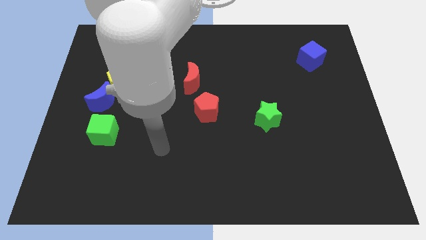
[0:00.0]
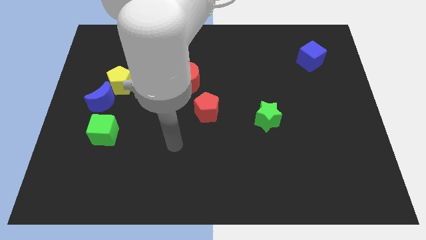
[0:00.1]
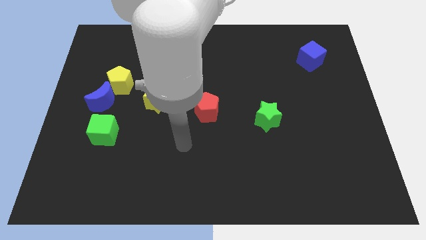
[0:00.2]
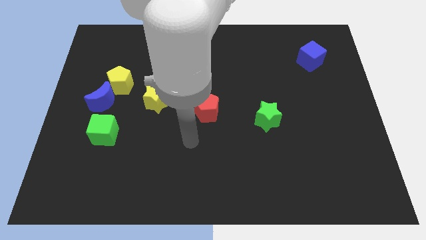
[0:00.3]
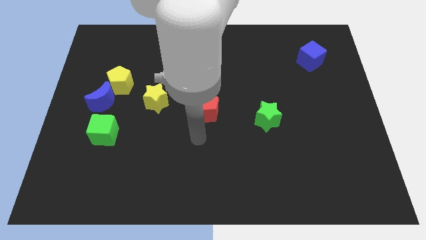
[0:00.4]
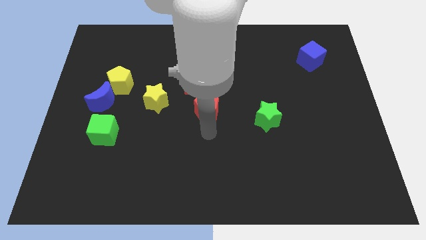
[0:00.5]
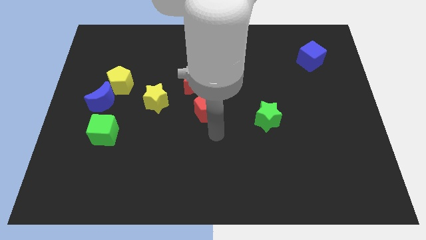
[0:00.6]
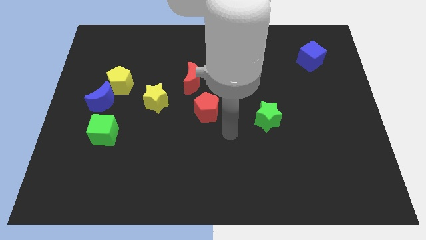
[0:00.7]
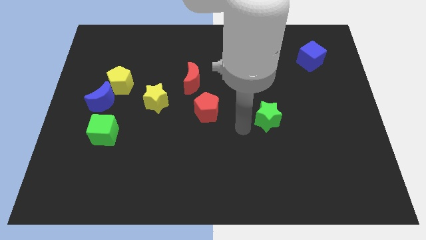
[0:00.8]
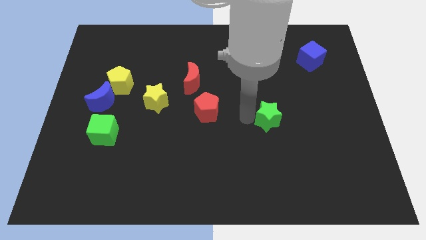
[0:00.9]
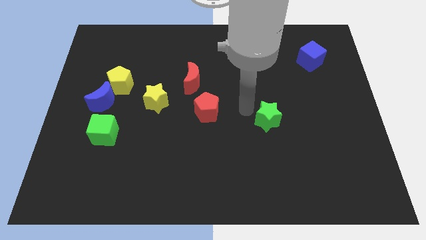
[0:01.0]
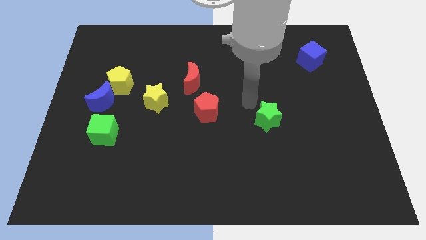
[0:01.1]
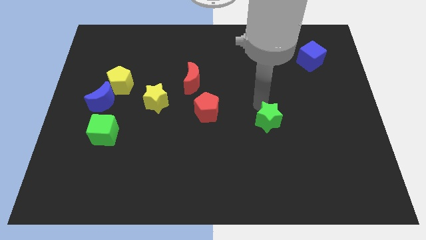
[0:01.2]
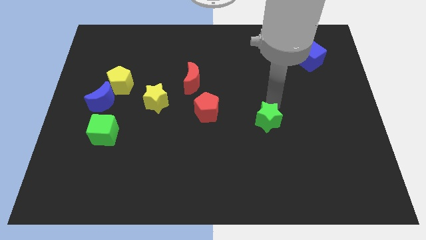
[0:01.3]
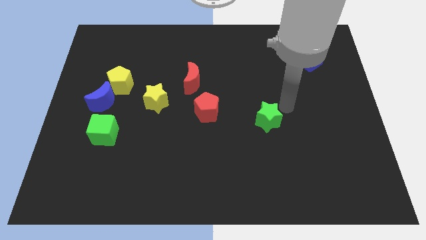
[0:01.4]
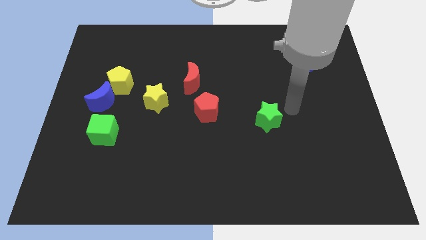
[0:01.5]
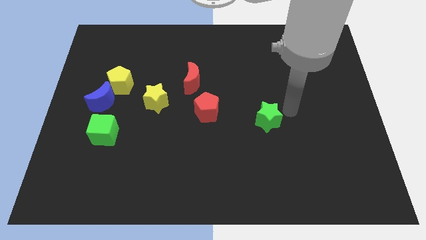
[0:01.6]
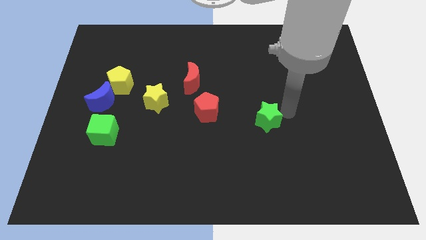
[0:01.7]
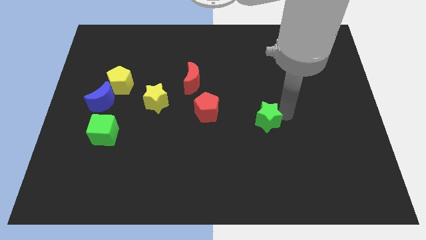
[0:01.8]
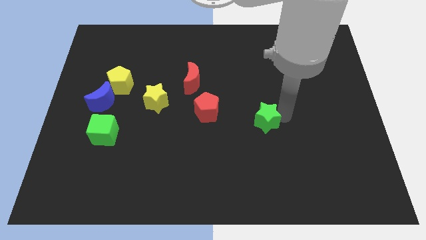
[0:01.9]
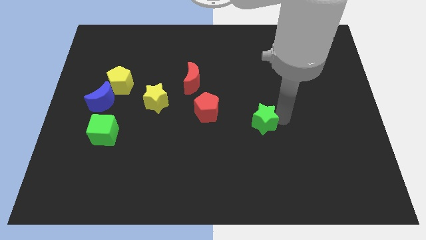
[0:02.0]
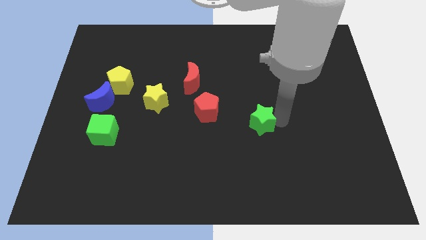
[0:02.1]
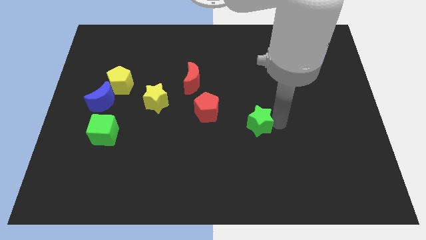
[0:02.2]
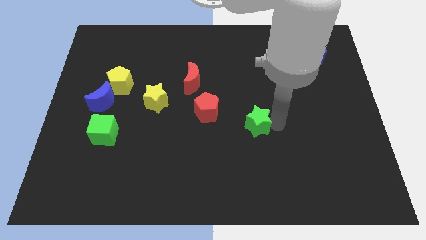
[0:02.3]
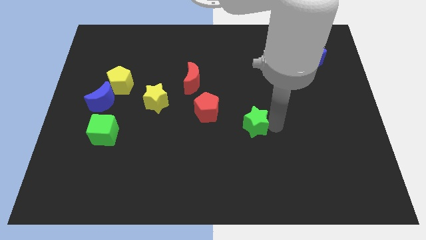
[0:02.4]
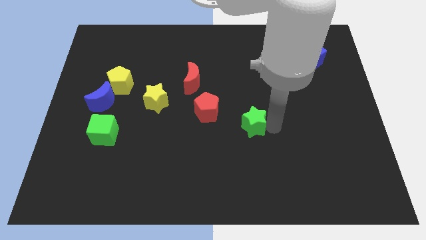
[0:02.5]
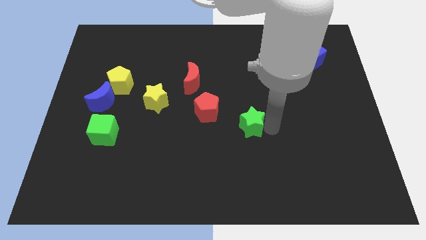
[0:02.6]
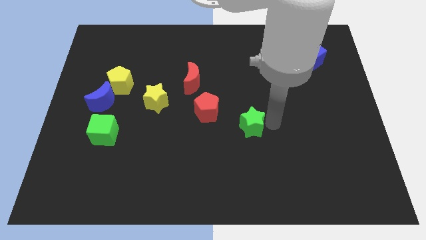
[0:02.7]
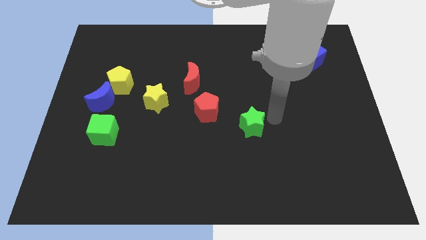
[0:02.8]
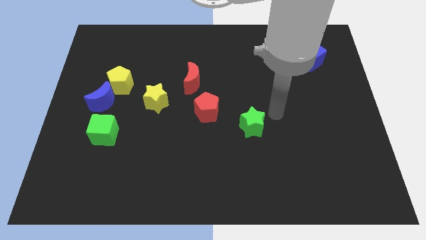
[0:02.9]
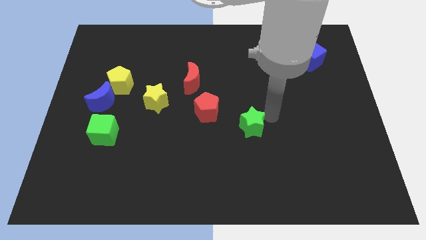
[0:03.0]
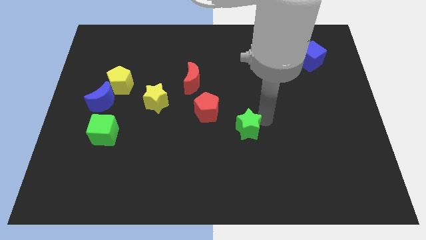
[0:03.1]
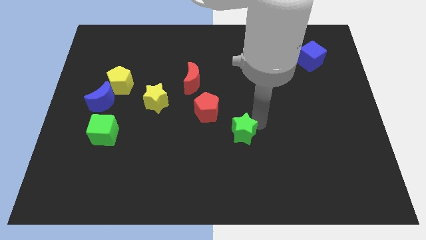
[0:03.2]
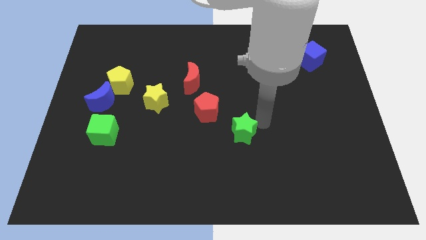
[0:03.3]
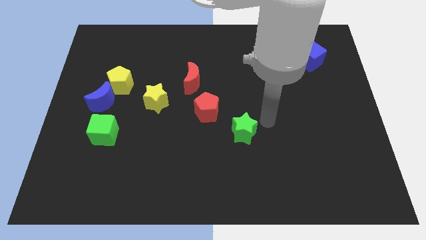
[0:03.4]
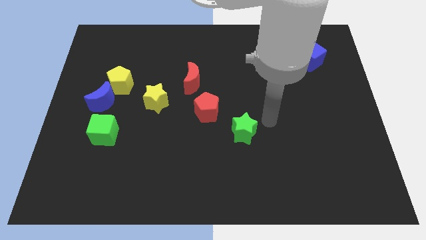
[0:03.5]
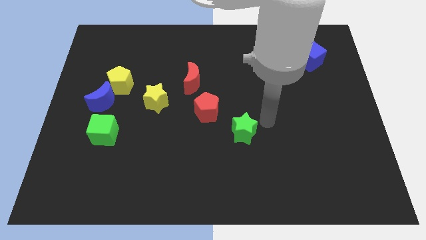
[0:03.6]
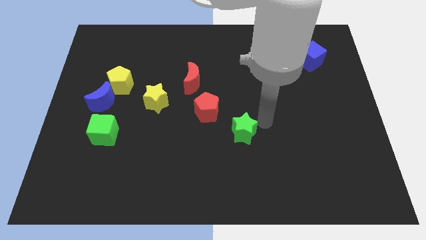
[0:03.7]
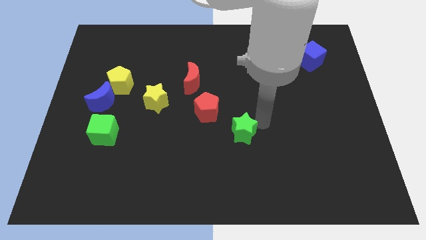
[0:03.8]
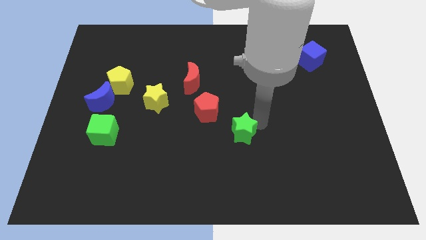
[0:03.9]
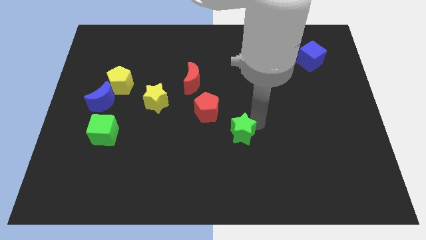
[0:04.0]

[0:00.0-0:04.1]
move the green star downwards and left slightly

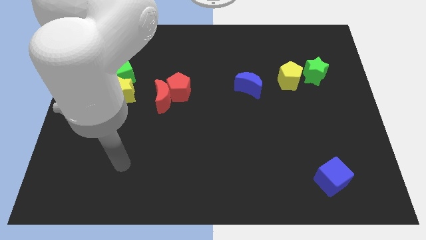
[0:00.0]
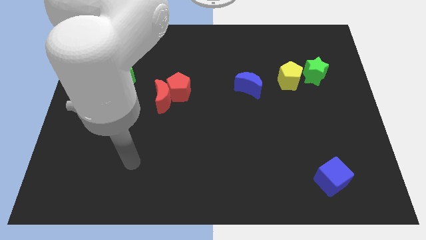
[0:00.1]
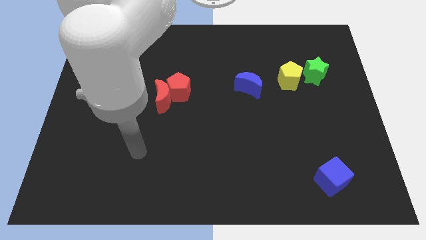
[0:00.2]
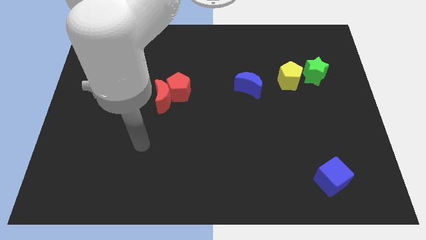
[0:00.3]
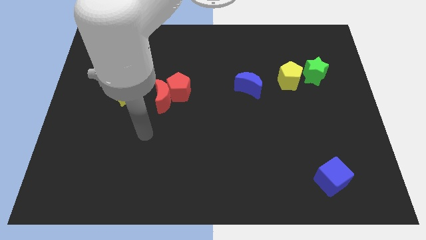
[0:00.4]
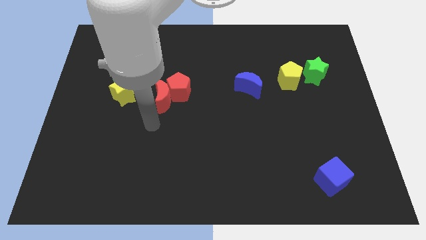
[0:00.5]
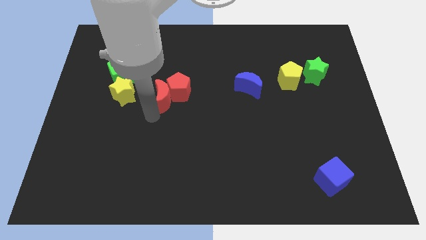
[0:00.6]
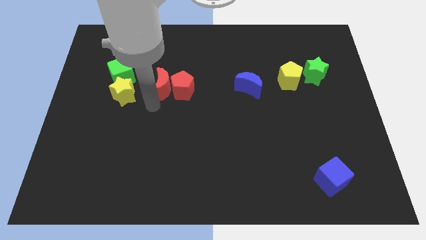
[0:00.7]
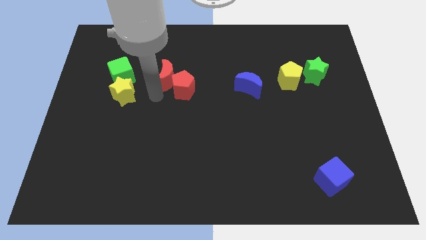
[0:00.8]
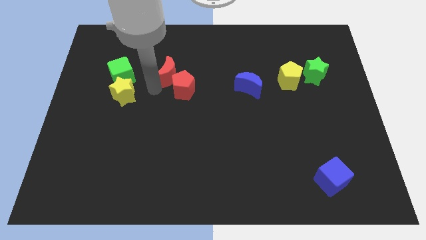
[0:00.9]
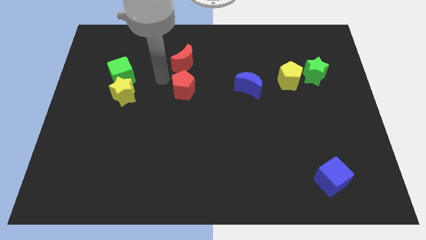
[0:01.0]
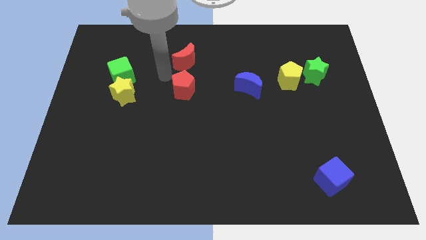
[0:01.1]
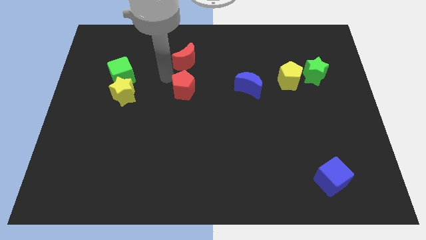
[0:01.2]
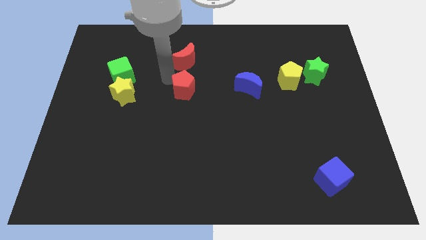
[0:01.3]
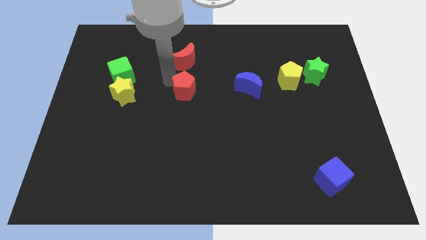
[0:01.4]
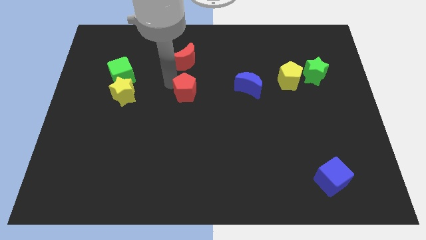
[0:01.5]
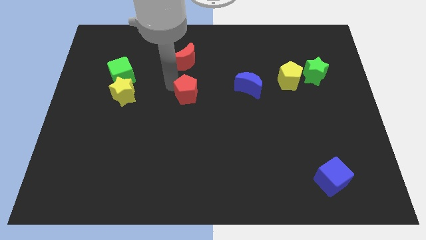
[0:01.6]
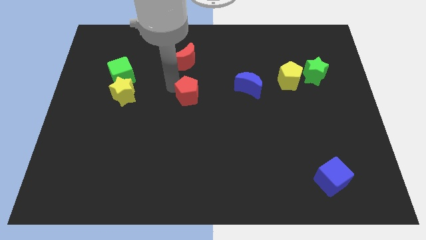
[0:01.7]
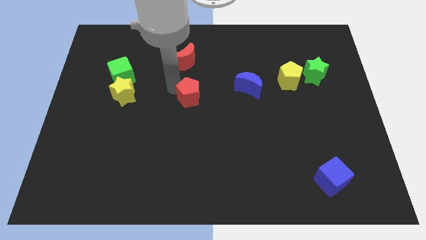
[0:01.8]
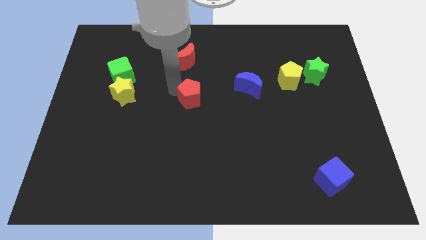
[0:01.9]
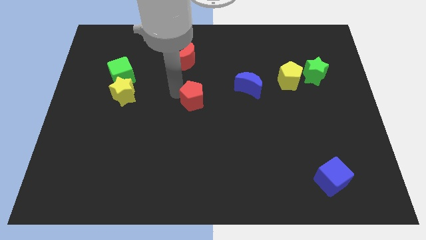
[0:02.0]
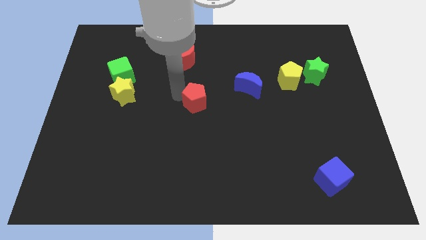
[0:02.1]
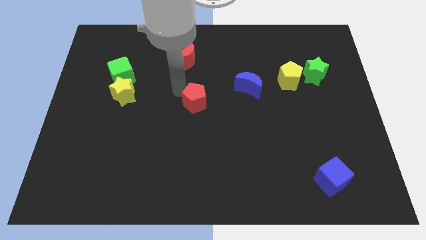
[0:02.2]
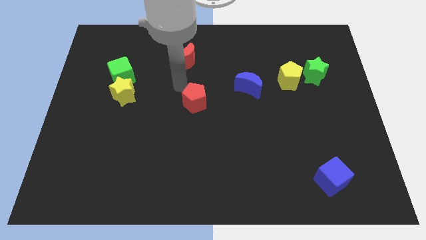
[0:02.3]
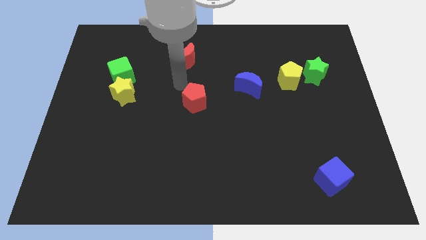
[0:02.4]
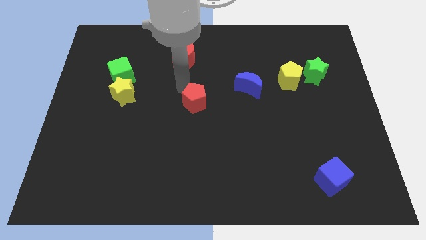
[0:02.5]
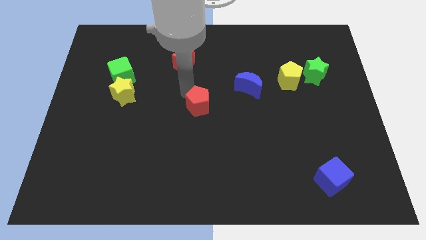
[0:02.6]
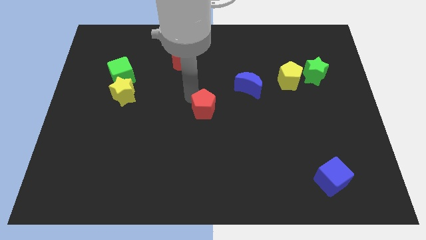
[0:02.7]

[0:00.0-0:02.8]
push the red pentagon downwards and then to the right somewhat

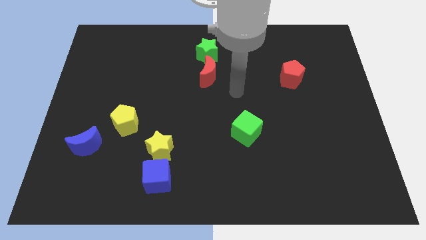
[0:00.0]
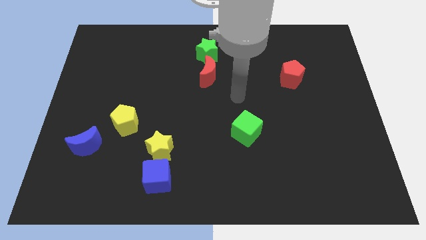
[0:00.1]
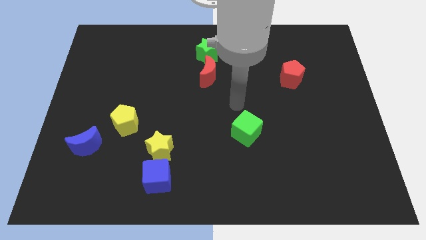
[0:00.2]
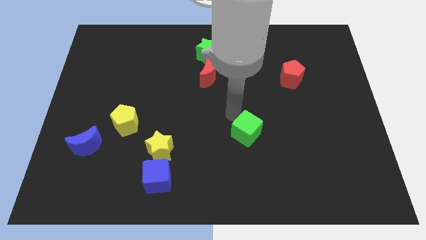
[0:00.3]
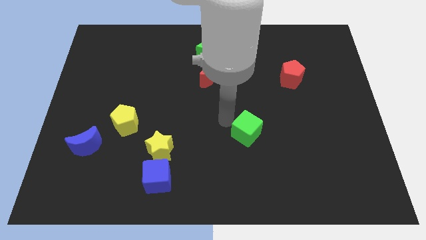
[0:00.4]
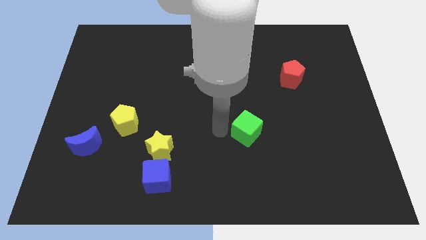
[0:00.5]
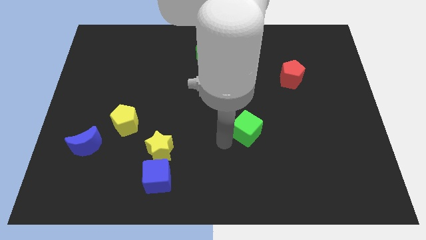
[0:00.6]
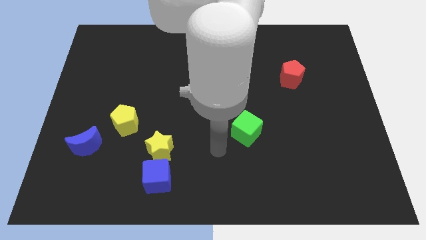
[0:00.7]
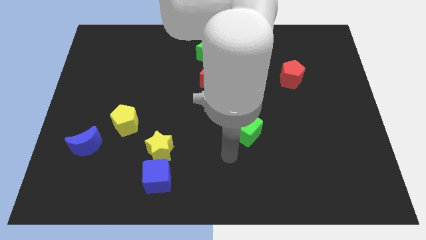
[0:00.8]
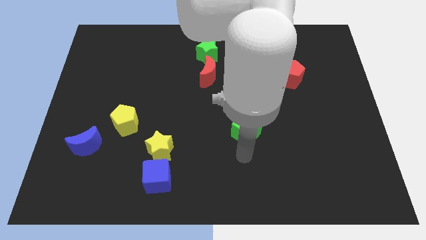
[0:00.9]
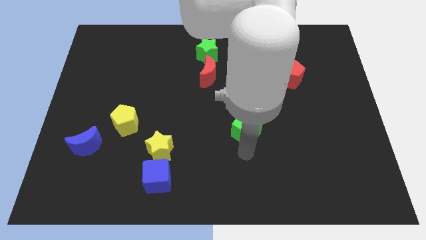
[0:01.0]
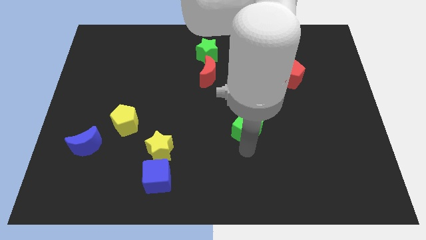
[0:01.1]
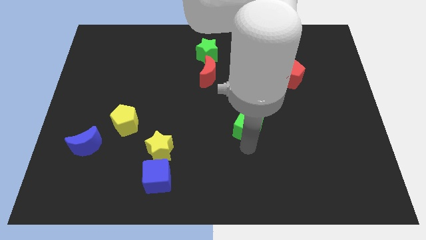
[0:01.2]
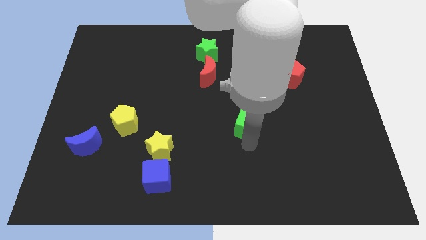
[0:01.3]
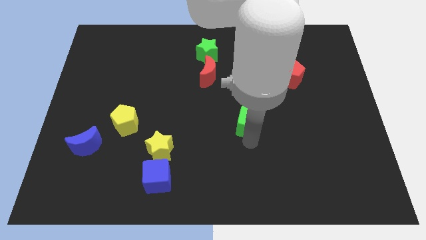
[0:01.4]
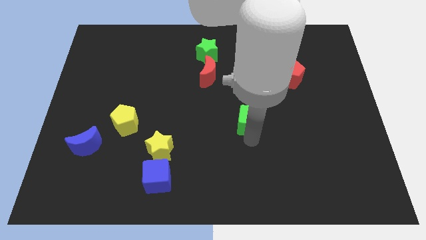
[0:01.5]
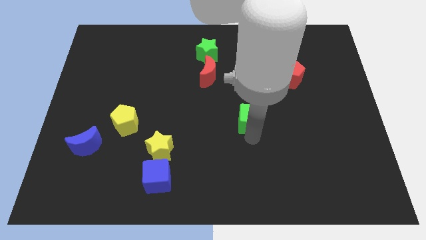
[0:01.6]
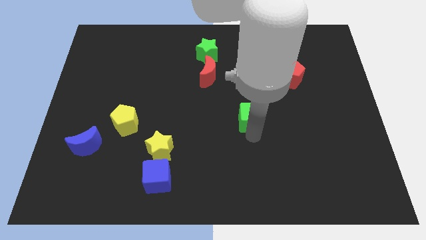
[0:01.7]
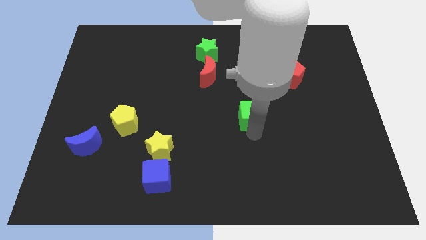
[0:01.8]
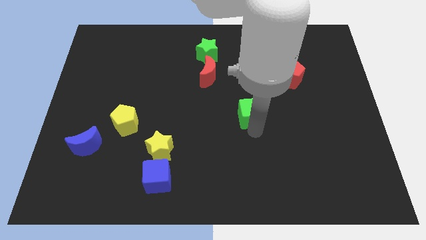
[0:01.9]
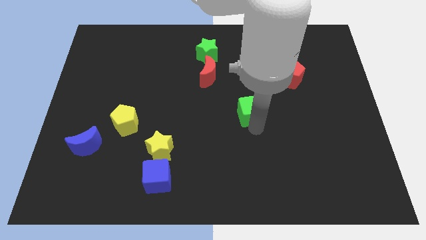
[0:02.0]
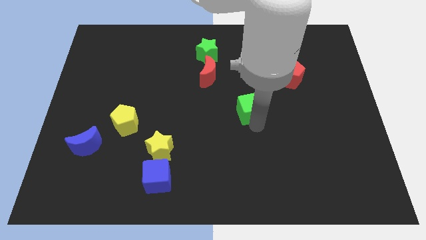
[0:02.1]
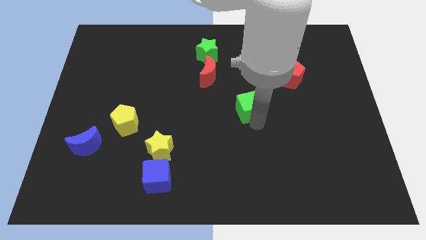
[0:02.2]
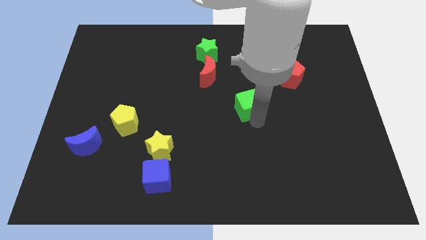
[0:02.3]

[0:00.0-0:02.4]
push the green cube a bit upwards
